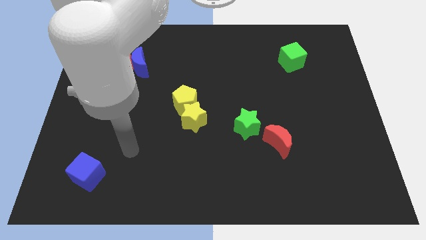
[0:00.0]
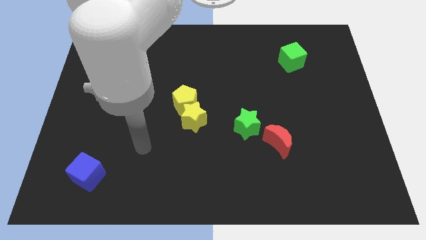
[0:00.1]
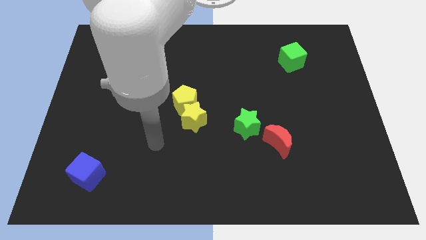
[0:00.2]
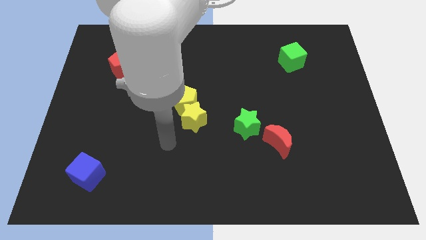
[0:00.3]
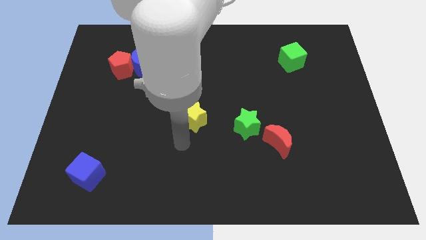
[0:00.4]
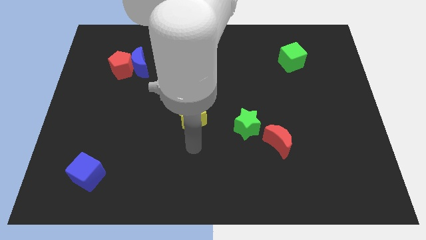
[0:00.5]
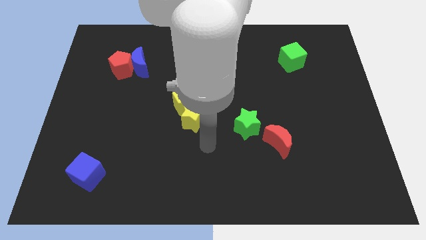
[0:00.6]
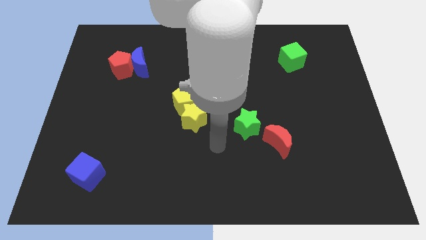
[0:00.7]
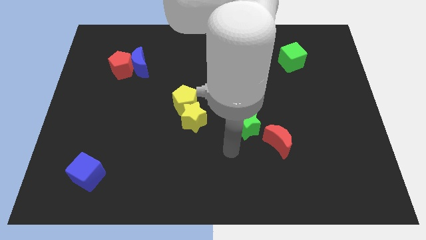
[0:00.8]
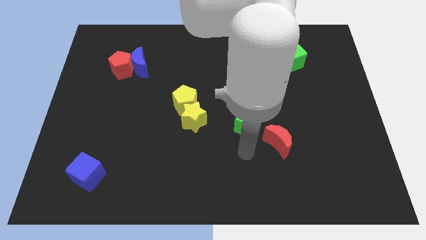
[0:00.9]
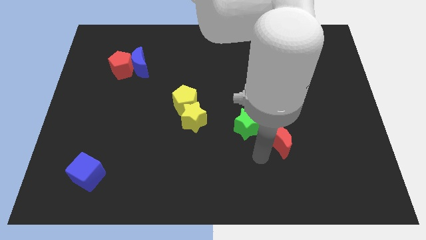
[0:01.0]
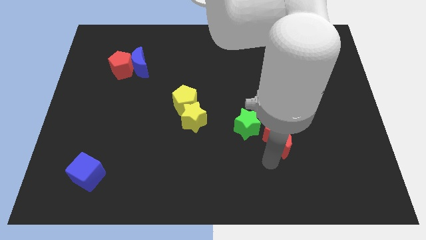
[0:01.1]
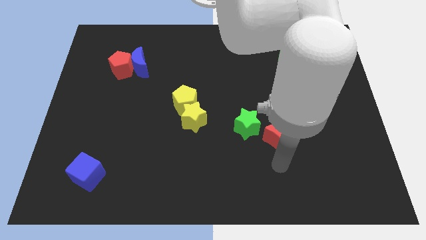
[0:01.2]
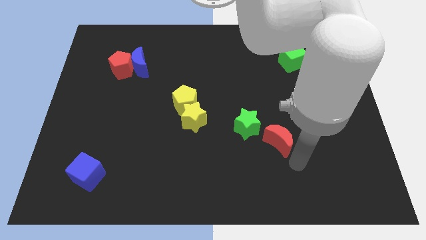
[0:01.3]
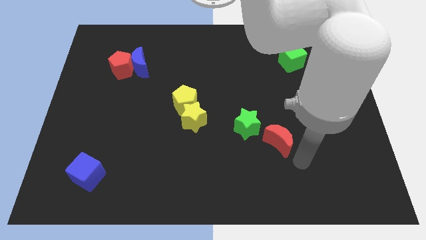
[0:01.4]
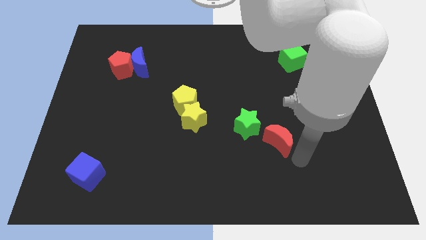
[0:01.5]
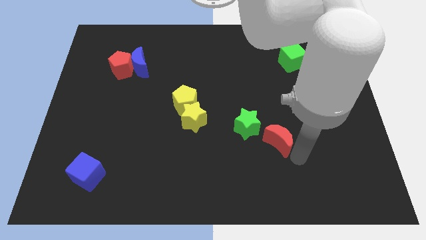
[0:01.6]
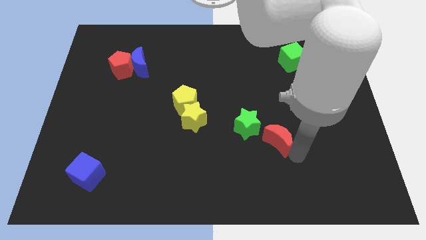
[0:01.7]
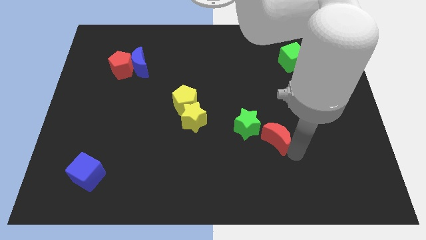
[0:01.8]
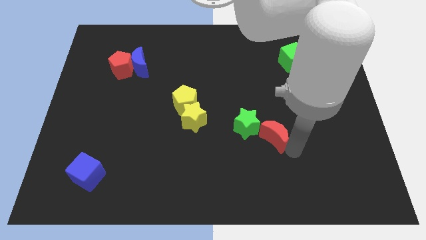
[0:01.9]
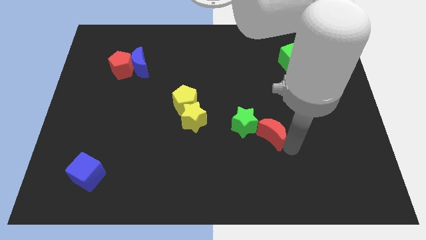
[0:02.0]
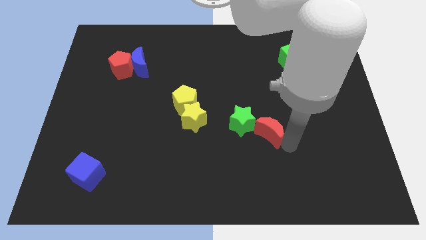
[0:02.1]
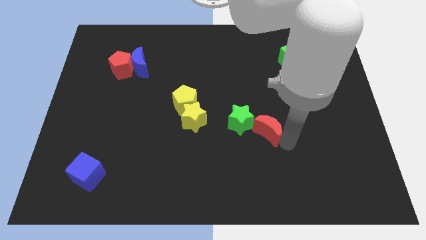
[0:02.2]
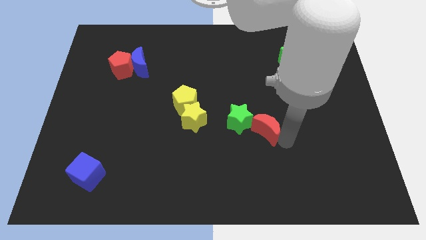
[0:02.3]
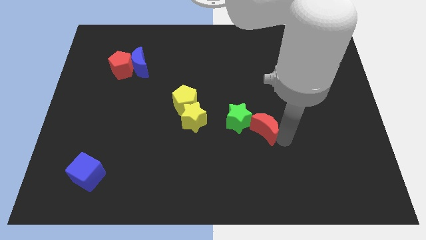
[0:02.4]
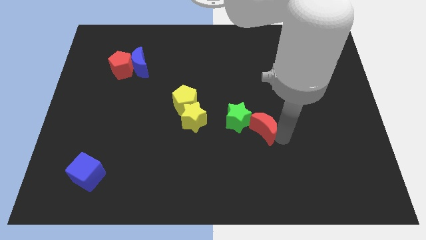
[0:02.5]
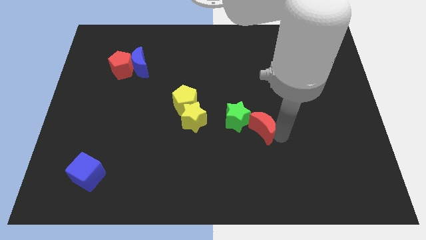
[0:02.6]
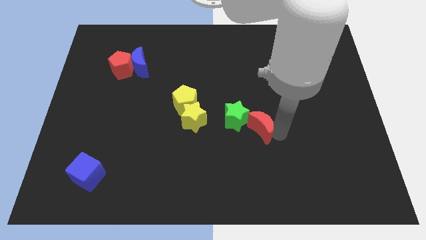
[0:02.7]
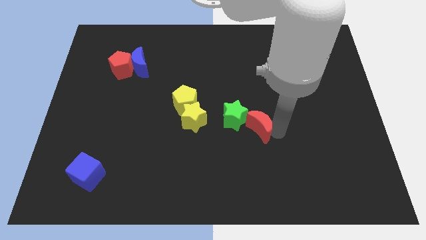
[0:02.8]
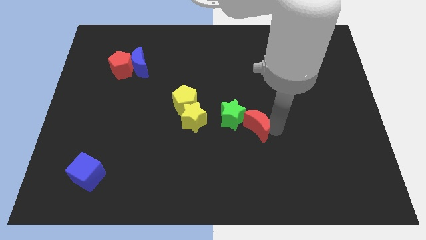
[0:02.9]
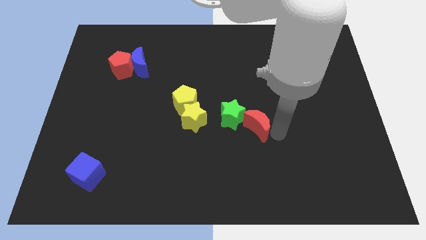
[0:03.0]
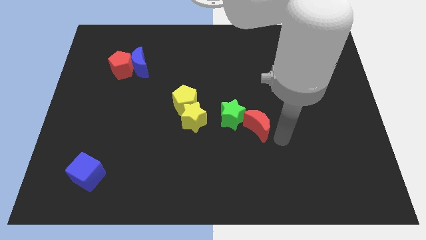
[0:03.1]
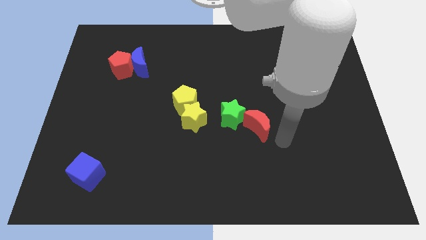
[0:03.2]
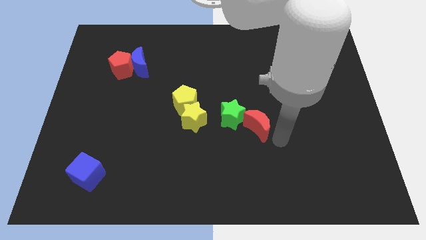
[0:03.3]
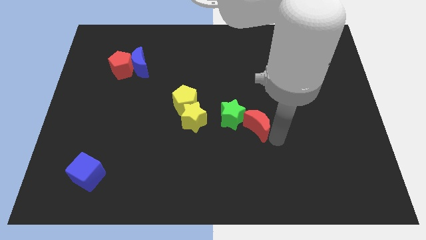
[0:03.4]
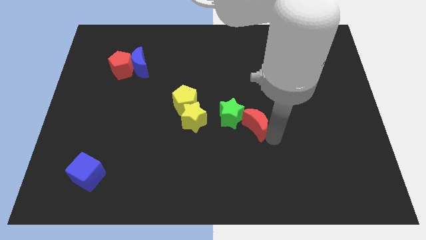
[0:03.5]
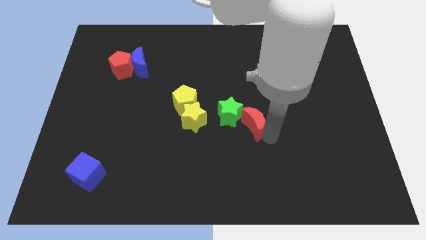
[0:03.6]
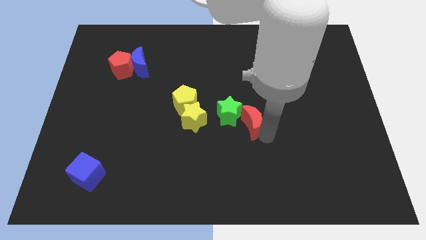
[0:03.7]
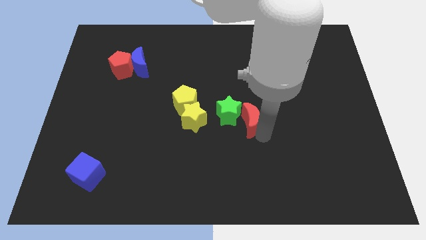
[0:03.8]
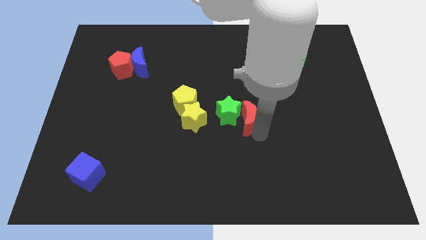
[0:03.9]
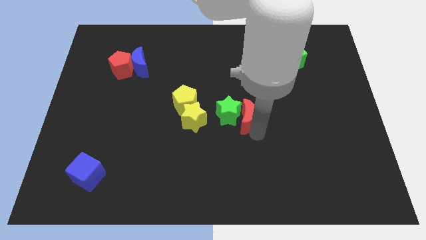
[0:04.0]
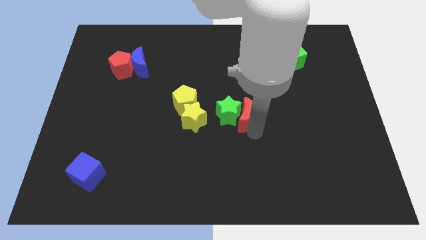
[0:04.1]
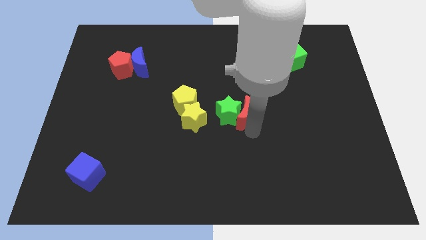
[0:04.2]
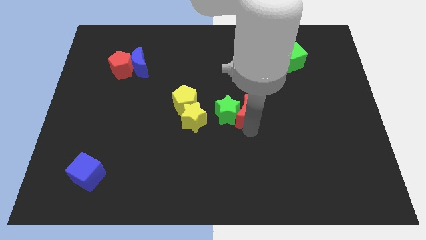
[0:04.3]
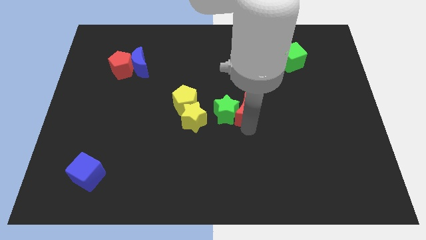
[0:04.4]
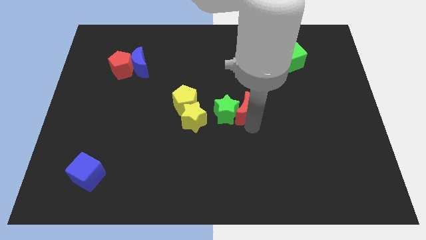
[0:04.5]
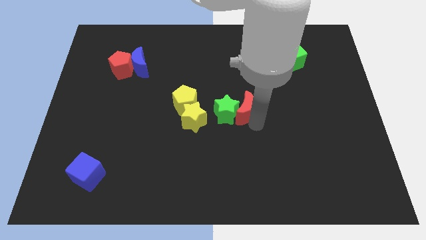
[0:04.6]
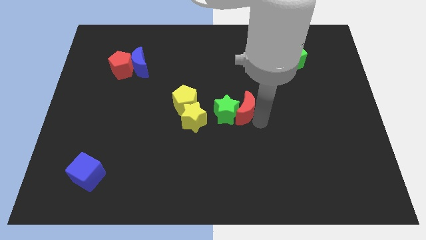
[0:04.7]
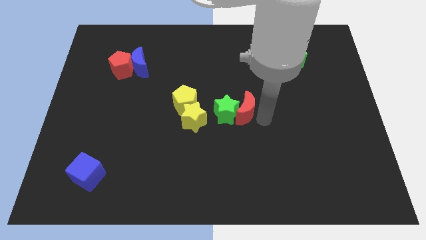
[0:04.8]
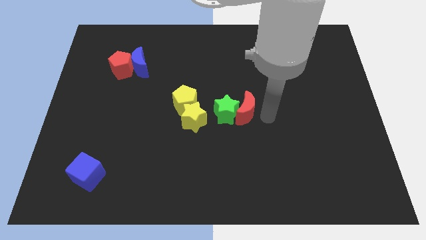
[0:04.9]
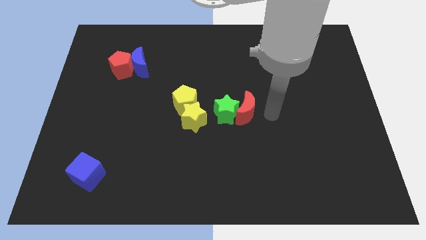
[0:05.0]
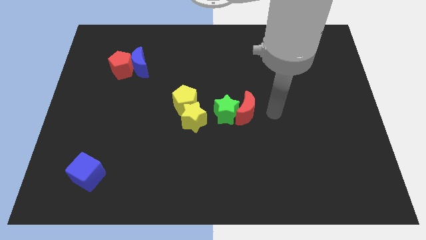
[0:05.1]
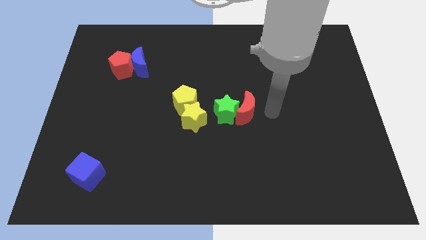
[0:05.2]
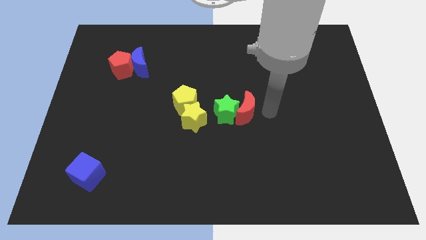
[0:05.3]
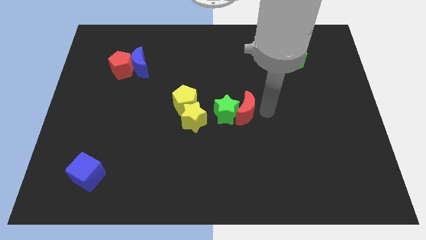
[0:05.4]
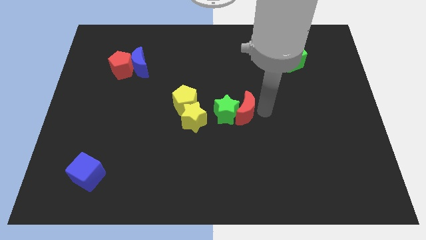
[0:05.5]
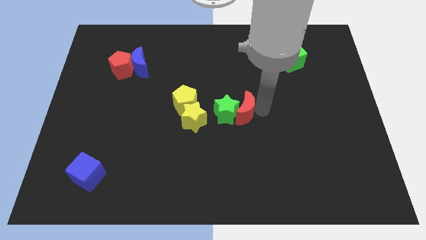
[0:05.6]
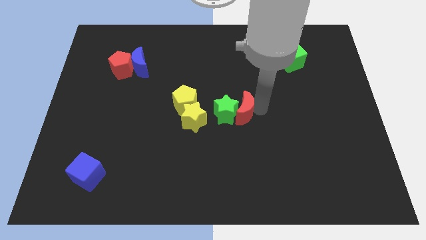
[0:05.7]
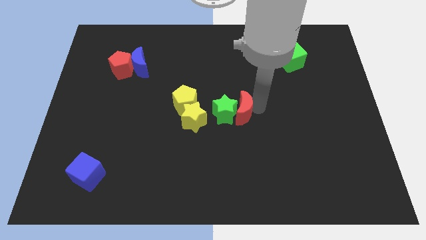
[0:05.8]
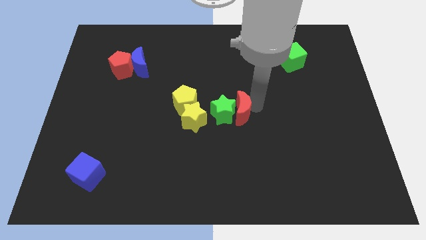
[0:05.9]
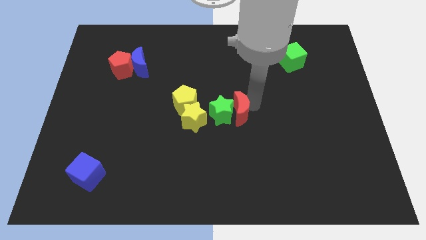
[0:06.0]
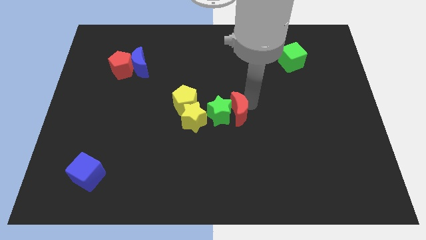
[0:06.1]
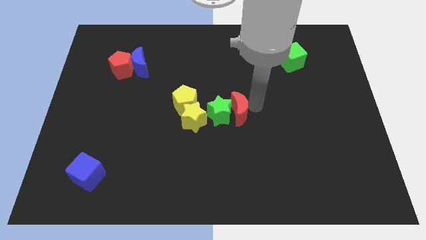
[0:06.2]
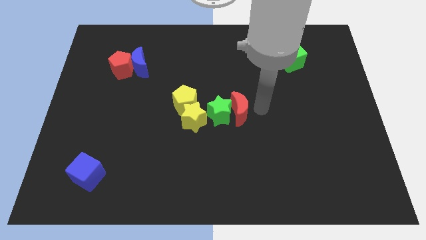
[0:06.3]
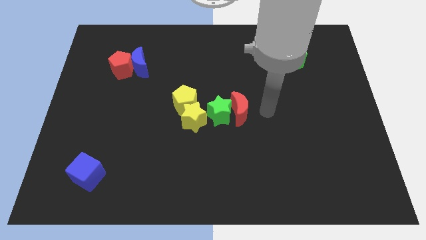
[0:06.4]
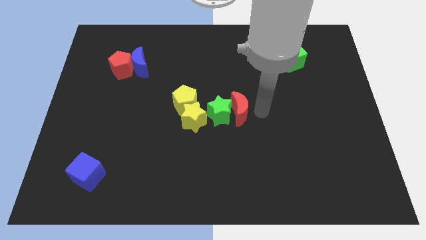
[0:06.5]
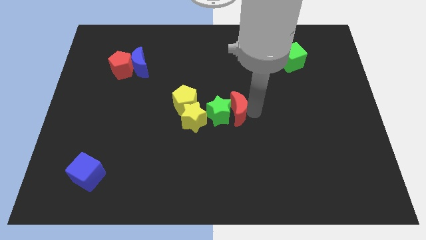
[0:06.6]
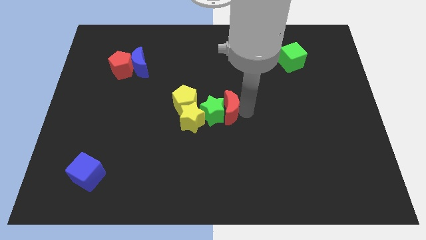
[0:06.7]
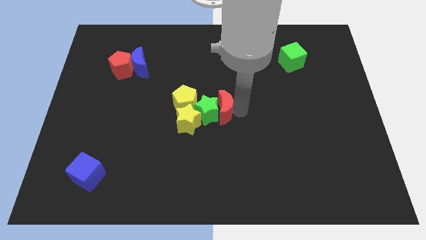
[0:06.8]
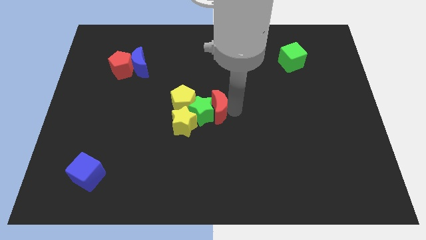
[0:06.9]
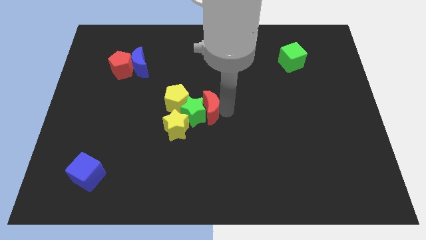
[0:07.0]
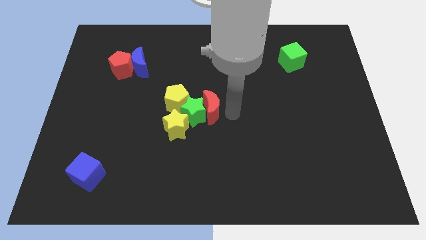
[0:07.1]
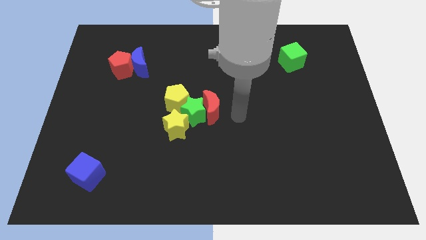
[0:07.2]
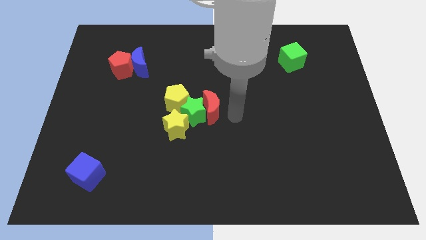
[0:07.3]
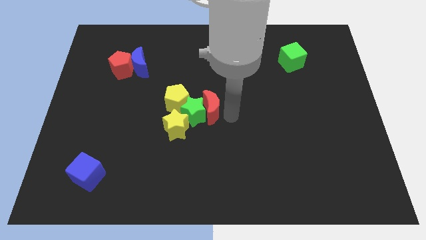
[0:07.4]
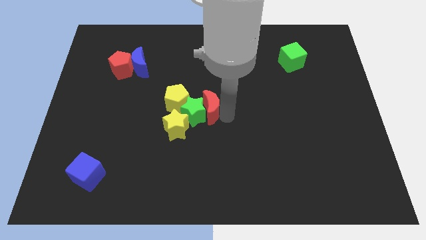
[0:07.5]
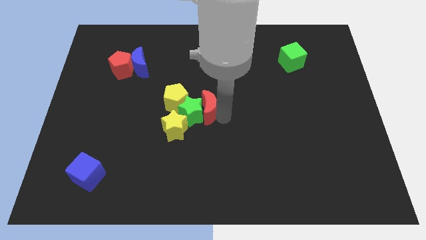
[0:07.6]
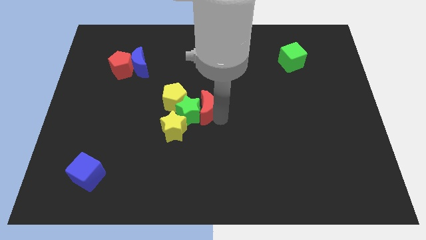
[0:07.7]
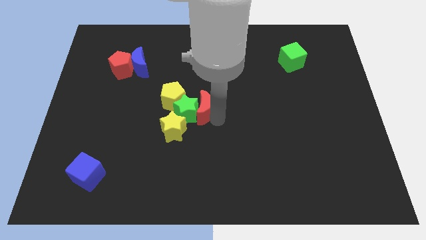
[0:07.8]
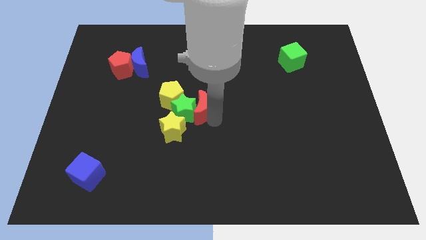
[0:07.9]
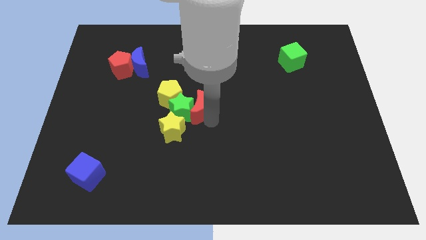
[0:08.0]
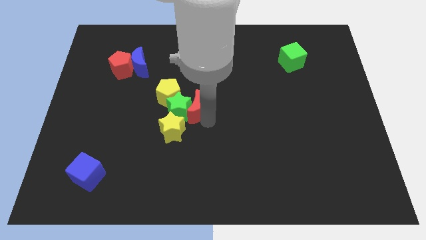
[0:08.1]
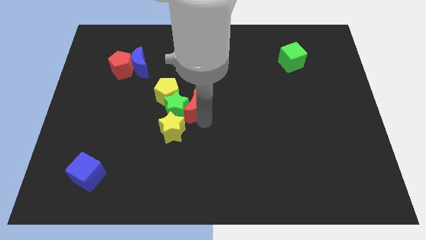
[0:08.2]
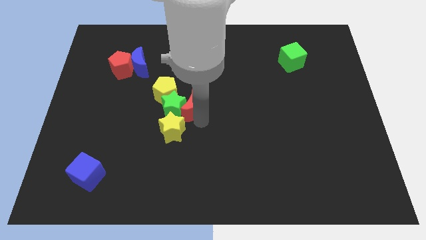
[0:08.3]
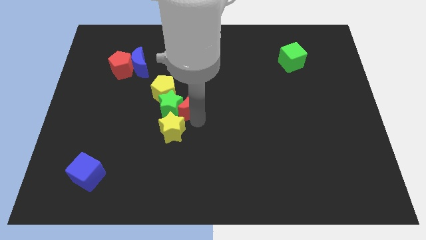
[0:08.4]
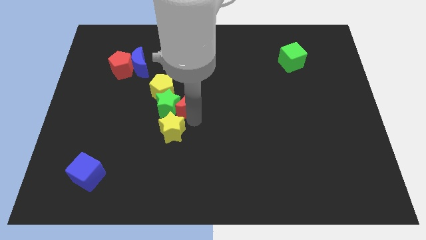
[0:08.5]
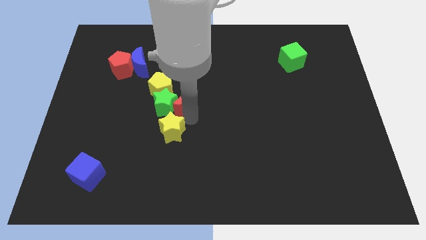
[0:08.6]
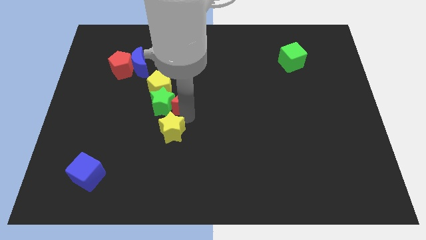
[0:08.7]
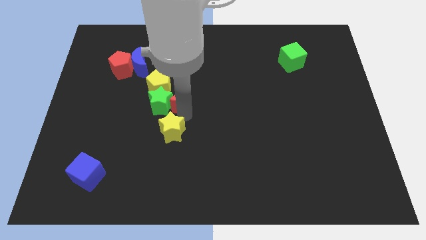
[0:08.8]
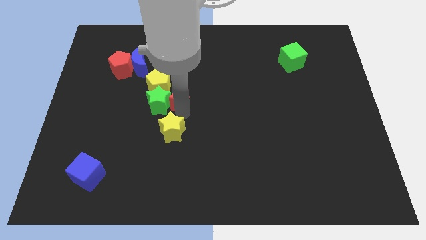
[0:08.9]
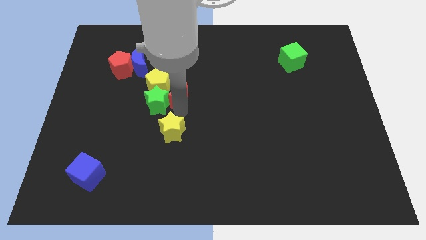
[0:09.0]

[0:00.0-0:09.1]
push the red moon next to the yellow pentagon
